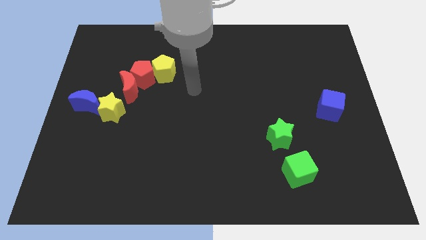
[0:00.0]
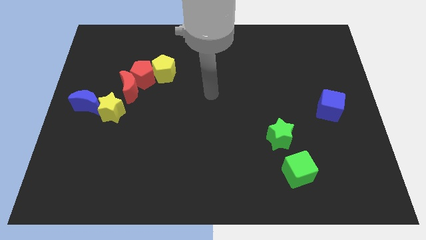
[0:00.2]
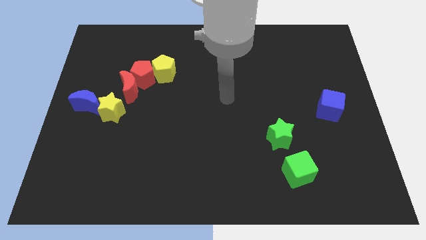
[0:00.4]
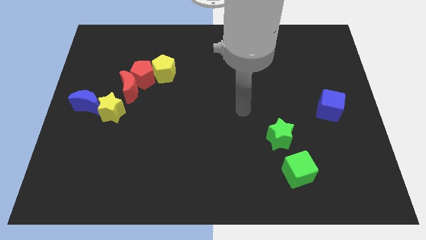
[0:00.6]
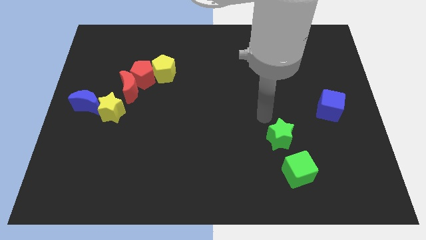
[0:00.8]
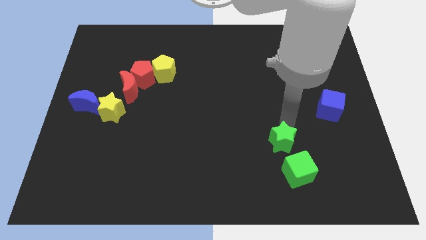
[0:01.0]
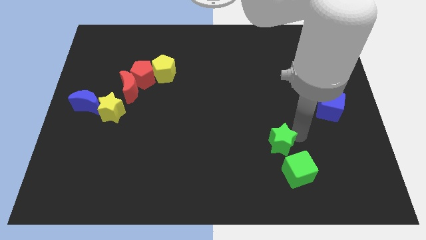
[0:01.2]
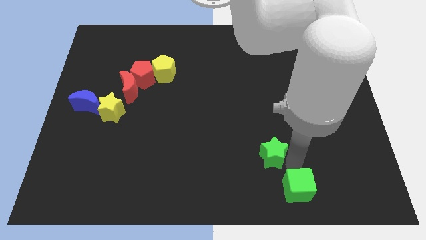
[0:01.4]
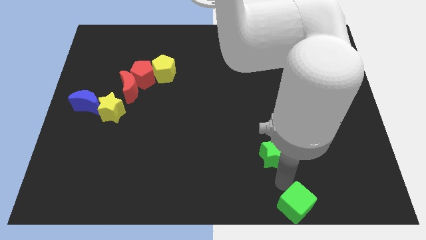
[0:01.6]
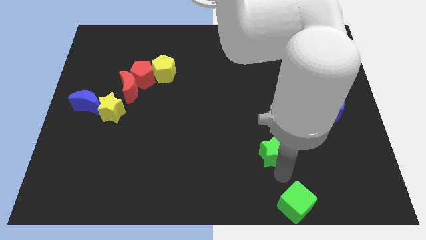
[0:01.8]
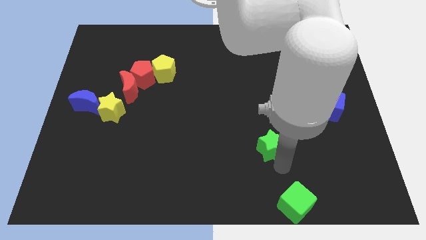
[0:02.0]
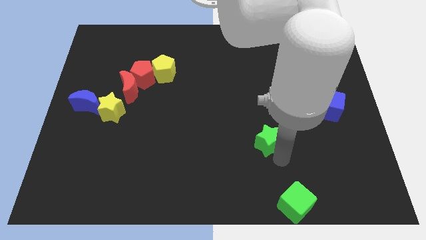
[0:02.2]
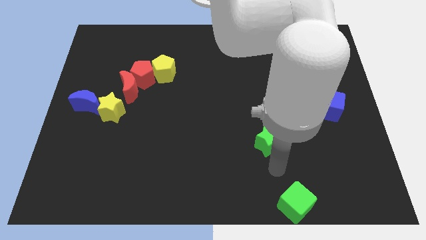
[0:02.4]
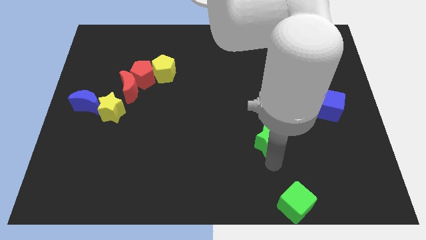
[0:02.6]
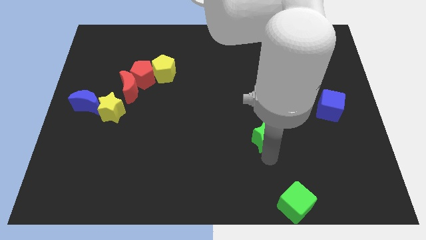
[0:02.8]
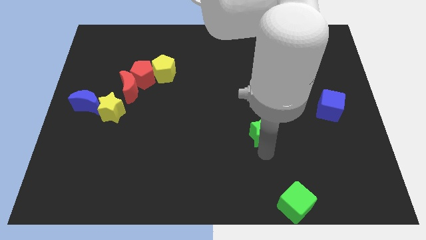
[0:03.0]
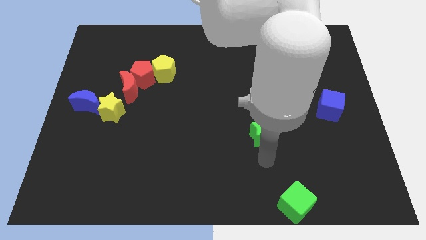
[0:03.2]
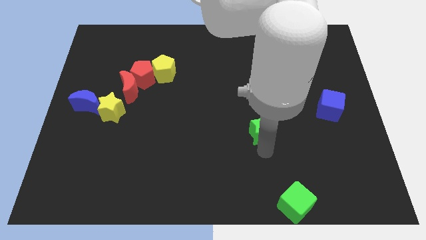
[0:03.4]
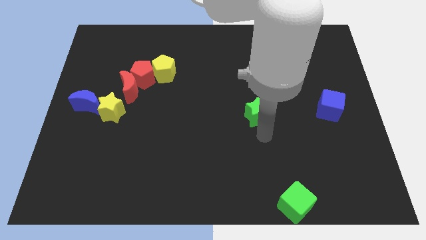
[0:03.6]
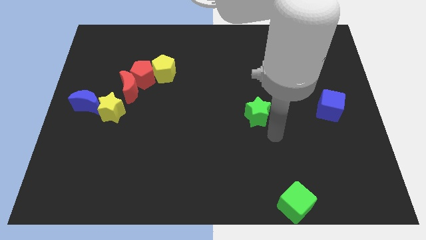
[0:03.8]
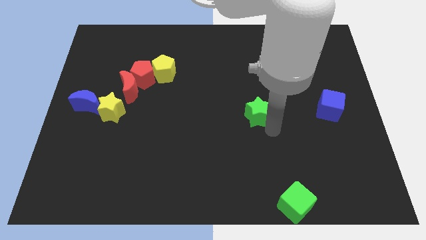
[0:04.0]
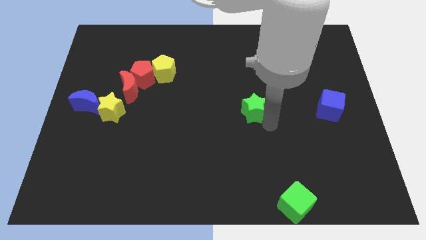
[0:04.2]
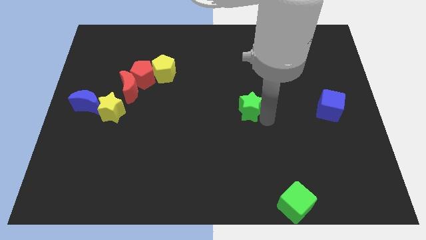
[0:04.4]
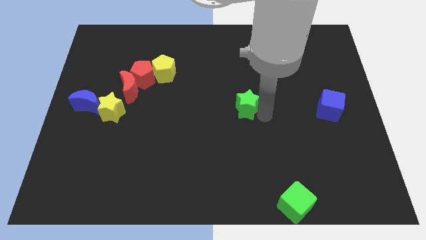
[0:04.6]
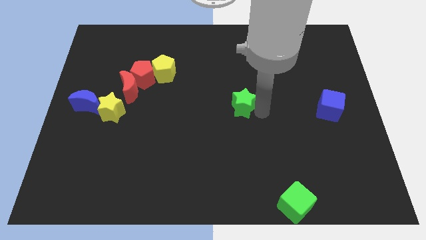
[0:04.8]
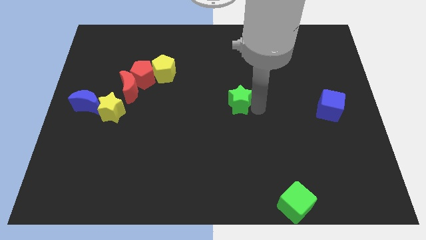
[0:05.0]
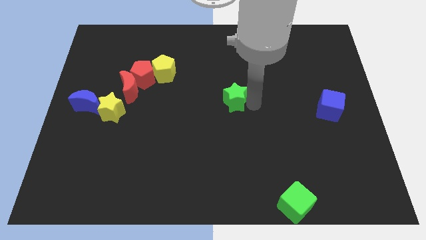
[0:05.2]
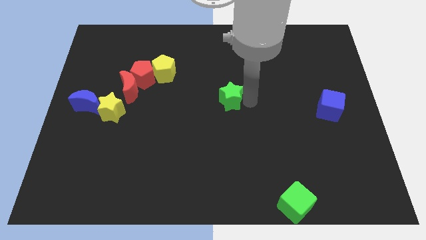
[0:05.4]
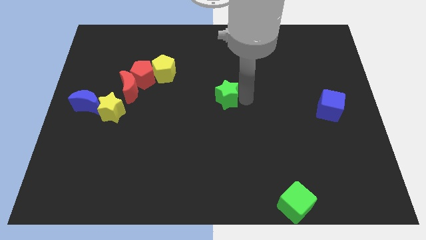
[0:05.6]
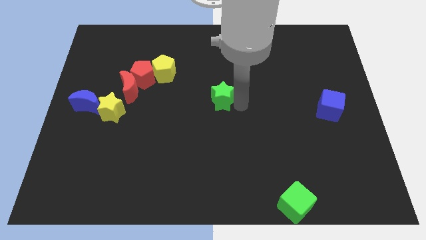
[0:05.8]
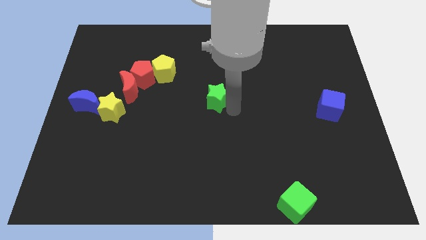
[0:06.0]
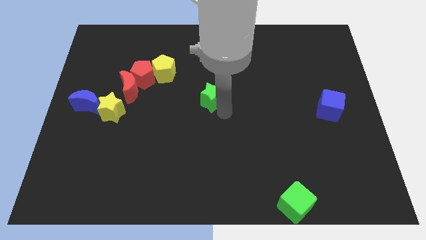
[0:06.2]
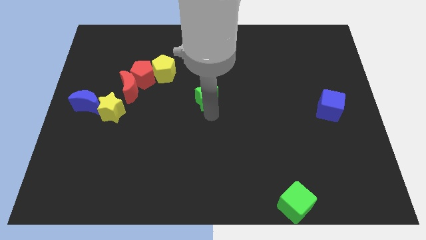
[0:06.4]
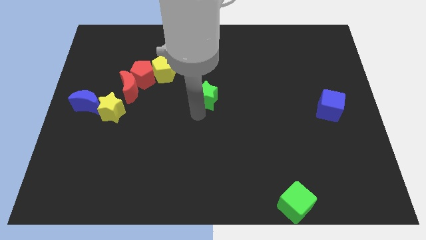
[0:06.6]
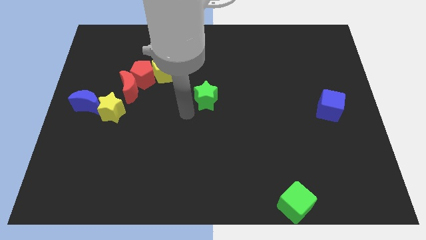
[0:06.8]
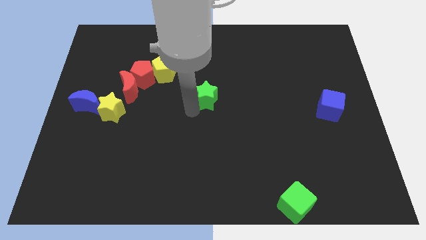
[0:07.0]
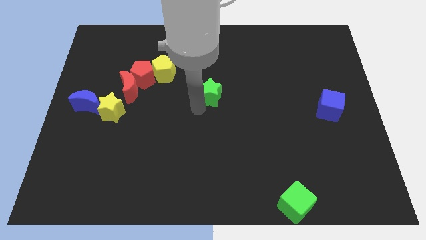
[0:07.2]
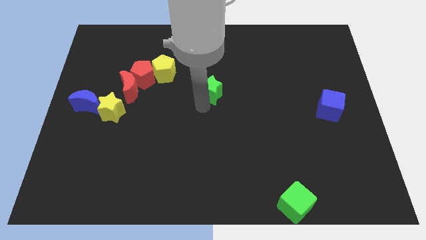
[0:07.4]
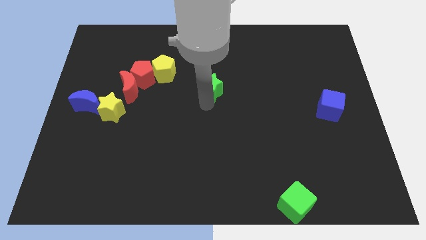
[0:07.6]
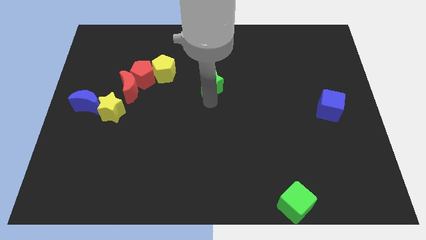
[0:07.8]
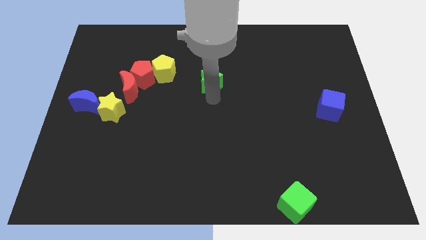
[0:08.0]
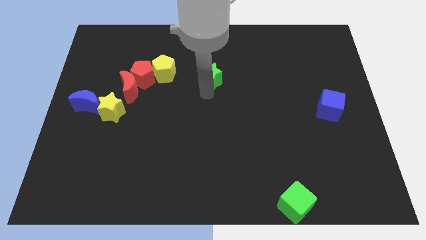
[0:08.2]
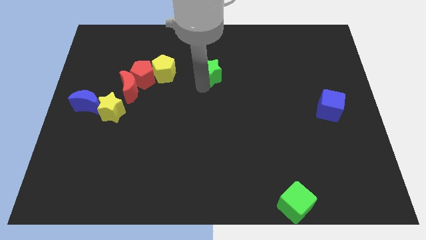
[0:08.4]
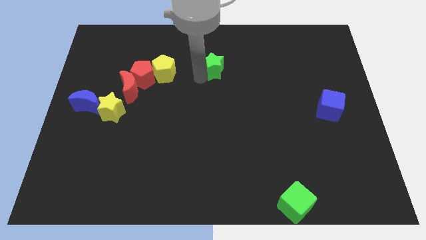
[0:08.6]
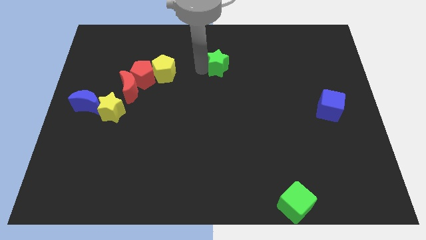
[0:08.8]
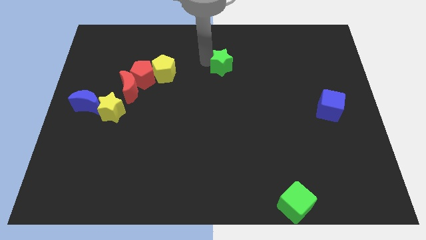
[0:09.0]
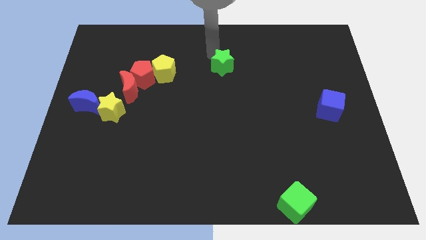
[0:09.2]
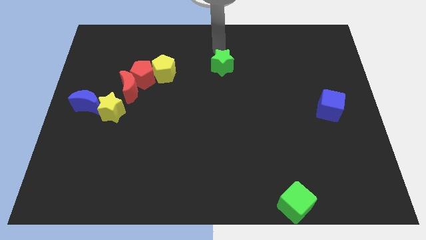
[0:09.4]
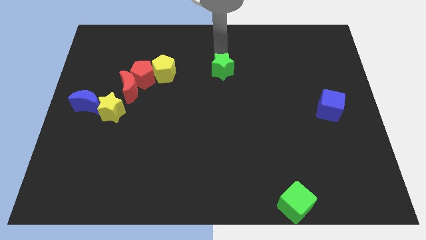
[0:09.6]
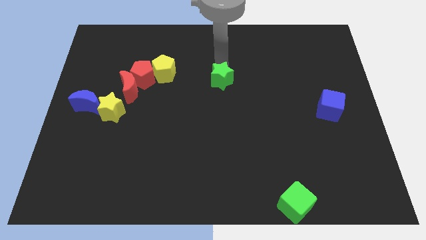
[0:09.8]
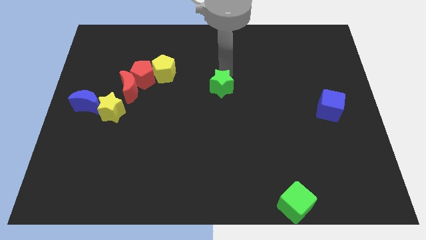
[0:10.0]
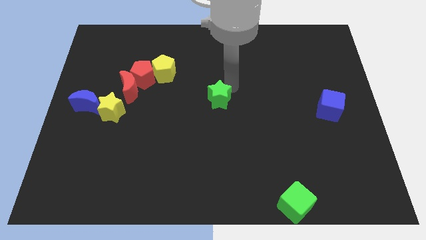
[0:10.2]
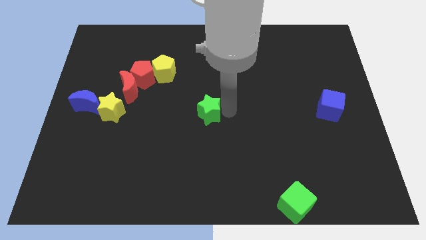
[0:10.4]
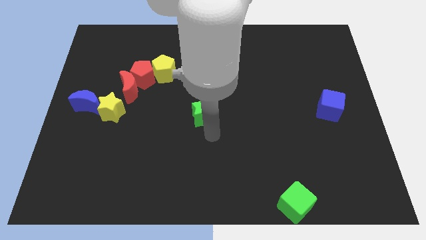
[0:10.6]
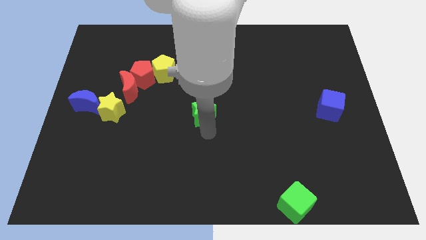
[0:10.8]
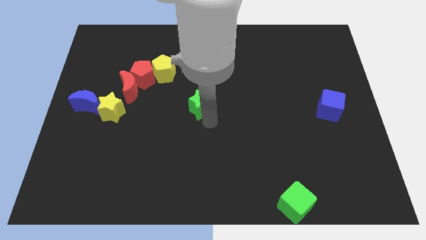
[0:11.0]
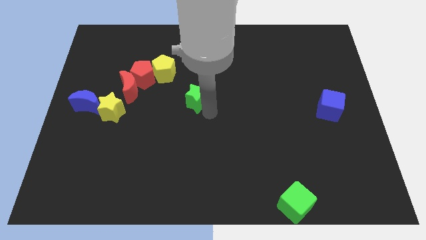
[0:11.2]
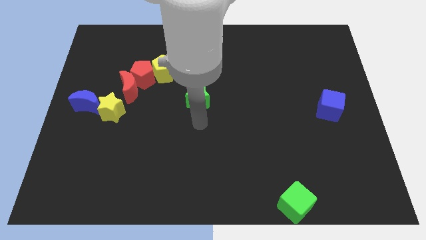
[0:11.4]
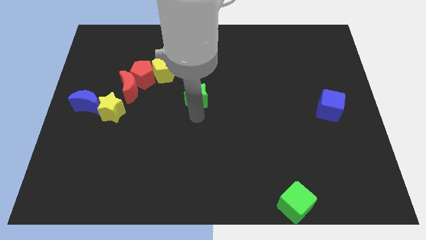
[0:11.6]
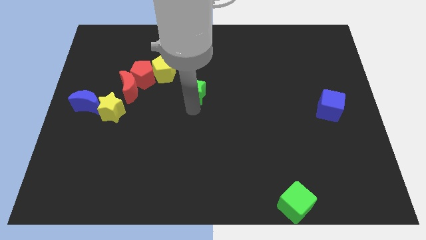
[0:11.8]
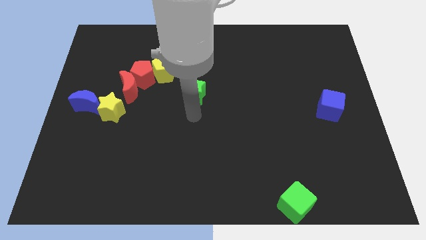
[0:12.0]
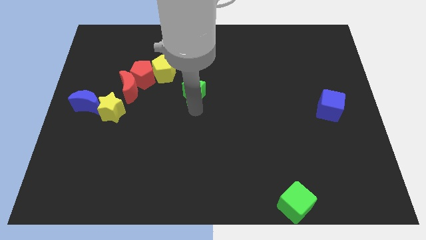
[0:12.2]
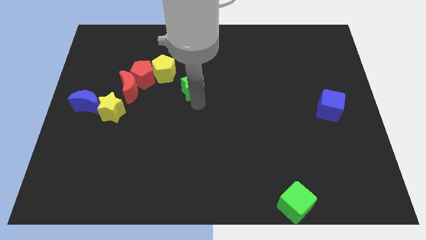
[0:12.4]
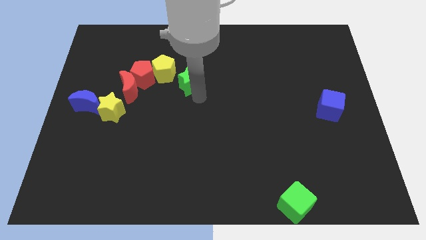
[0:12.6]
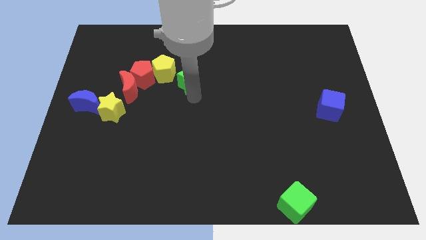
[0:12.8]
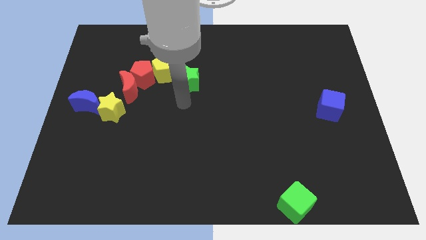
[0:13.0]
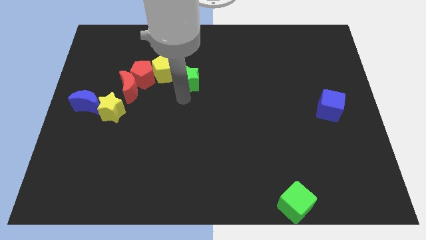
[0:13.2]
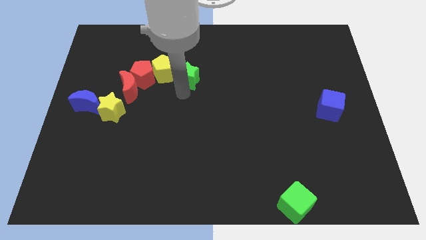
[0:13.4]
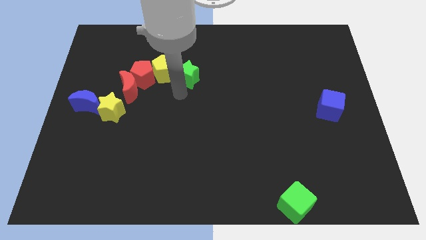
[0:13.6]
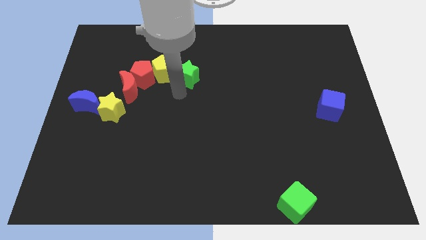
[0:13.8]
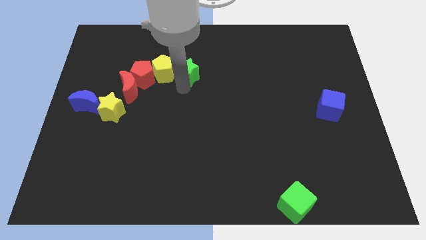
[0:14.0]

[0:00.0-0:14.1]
push the green star diagonally up and to the right of the yellow pentagon
